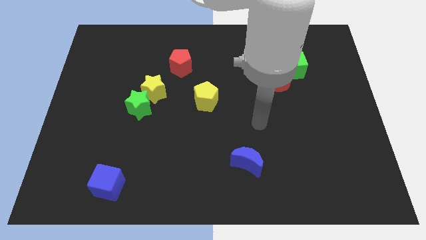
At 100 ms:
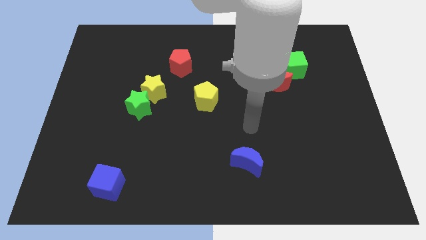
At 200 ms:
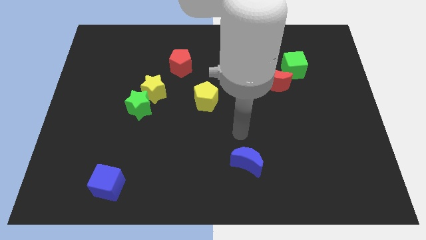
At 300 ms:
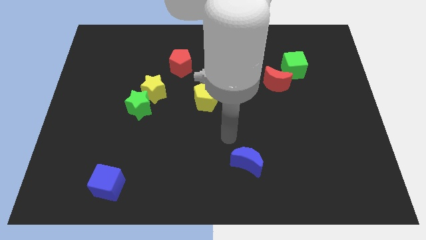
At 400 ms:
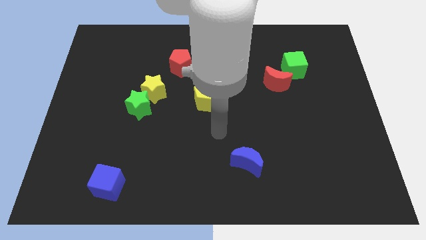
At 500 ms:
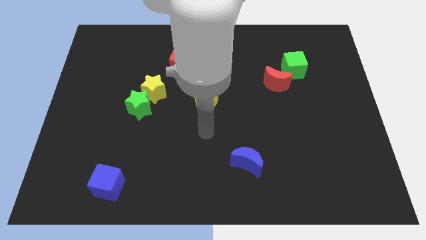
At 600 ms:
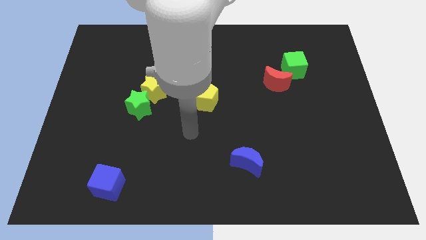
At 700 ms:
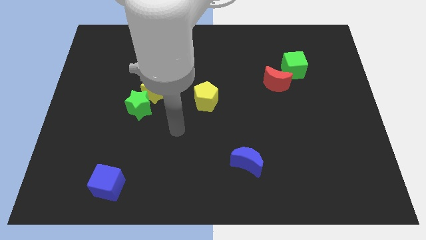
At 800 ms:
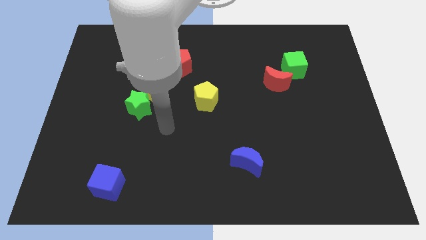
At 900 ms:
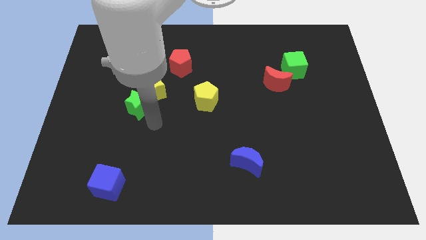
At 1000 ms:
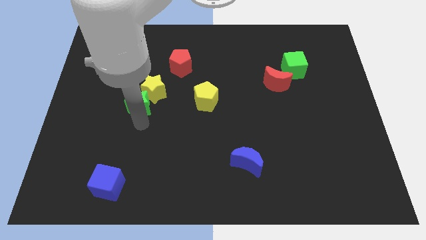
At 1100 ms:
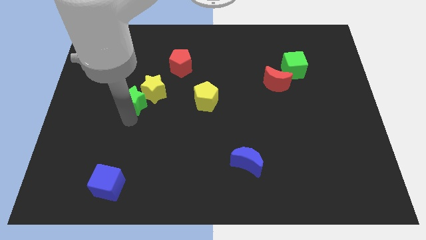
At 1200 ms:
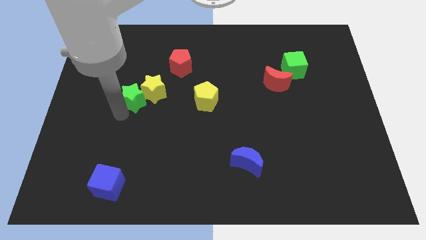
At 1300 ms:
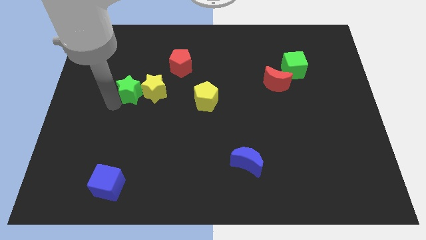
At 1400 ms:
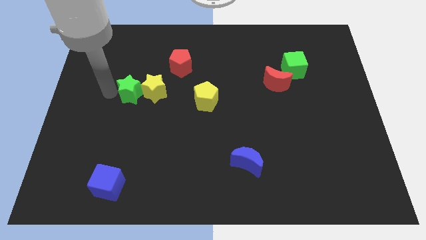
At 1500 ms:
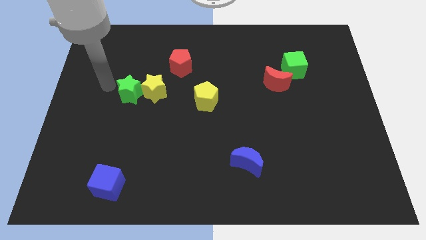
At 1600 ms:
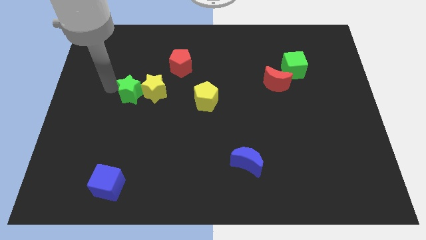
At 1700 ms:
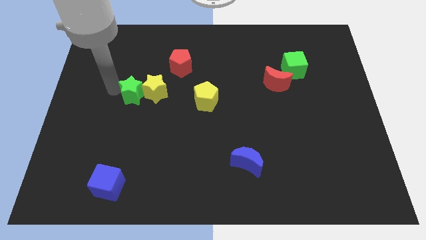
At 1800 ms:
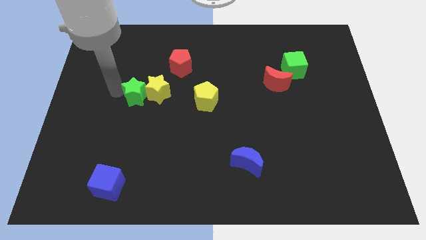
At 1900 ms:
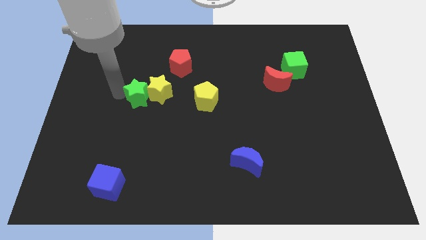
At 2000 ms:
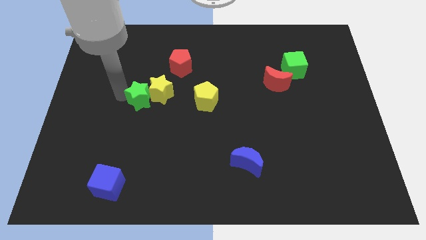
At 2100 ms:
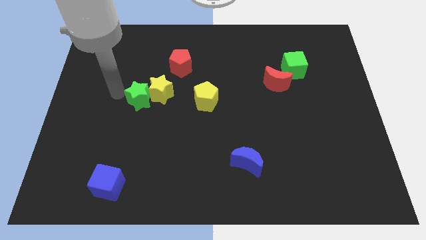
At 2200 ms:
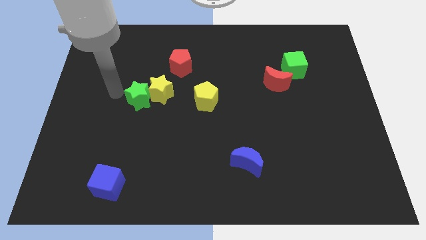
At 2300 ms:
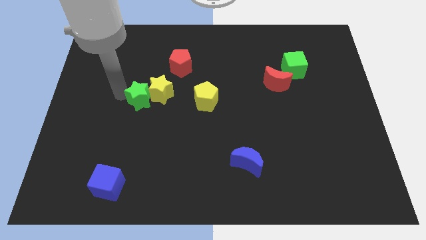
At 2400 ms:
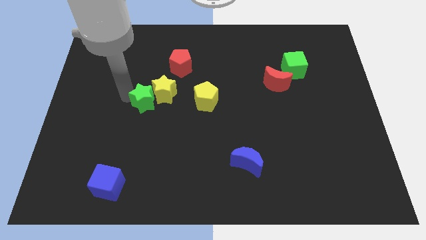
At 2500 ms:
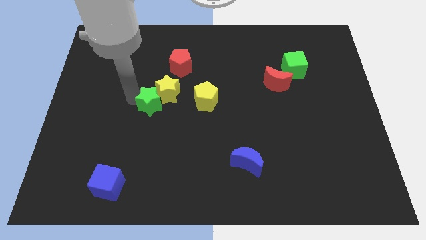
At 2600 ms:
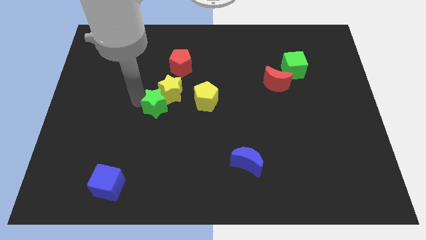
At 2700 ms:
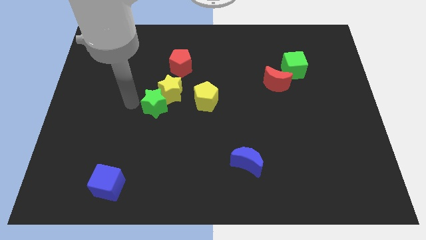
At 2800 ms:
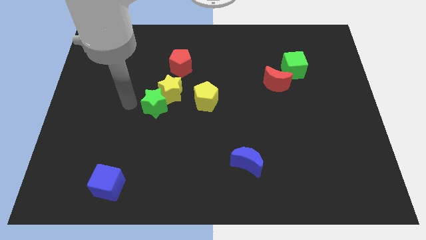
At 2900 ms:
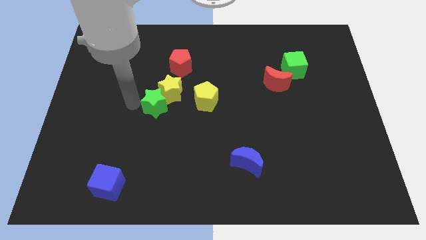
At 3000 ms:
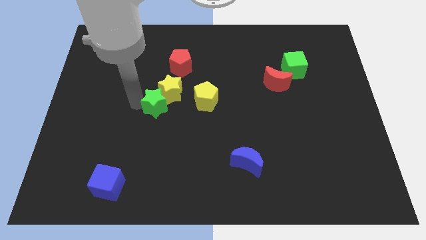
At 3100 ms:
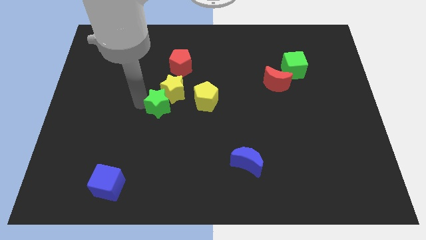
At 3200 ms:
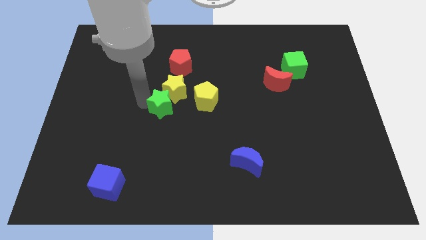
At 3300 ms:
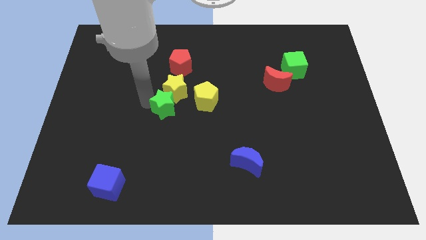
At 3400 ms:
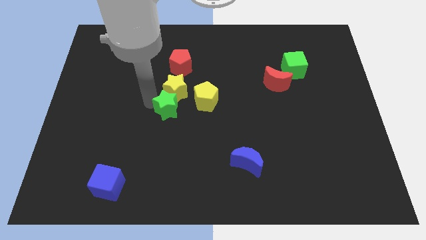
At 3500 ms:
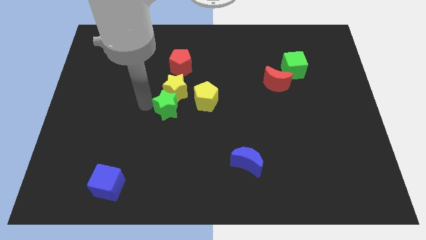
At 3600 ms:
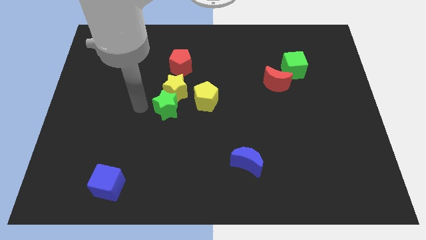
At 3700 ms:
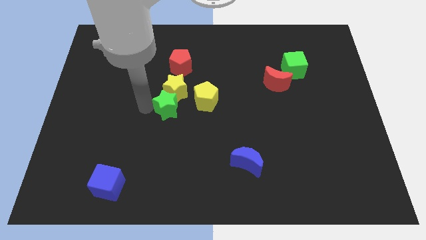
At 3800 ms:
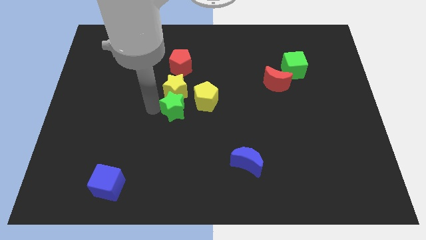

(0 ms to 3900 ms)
move the green star to the right a bit

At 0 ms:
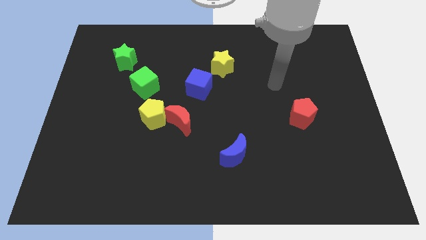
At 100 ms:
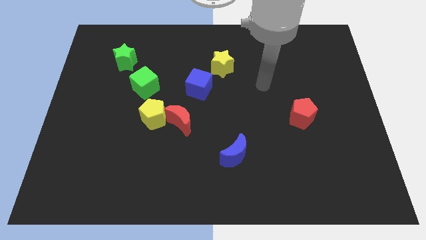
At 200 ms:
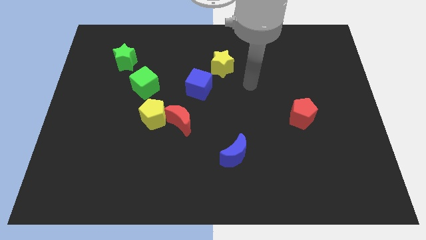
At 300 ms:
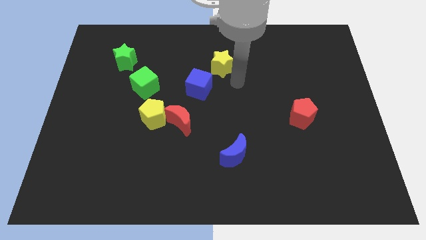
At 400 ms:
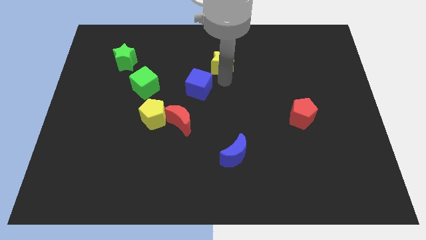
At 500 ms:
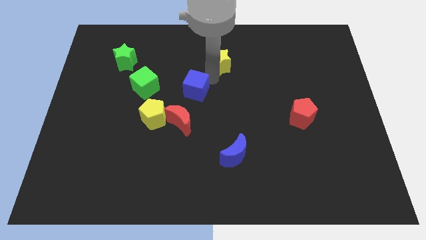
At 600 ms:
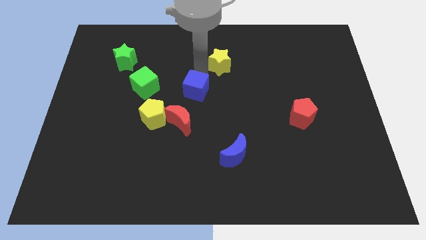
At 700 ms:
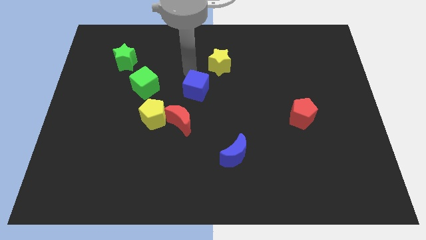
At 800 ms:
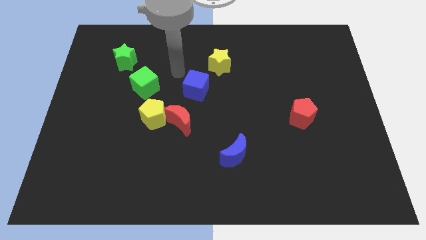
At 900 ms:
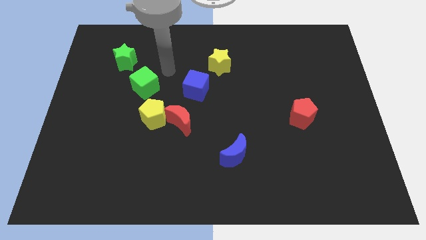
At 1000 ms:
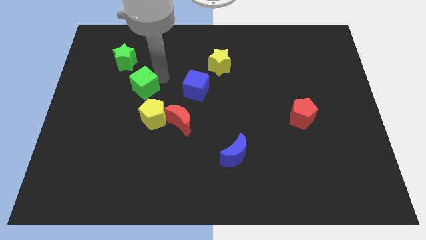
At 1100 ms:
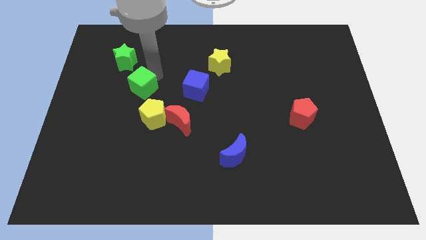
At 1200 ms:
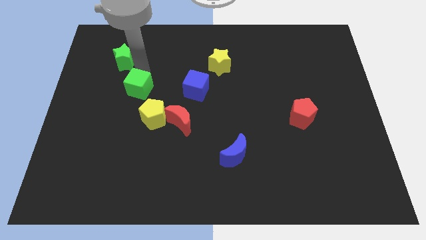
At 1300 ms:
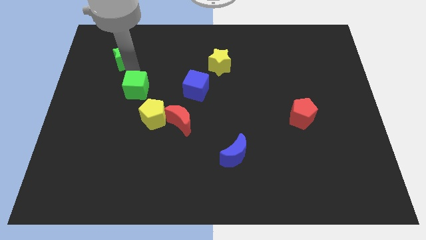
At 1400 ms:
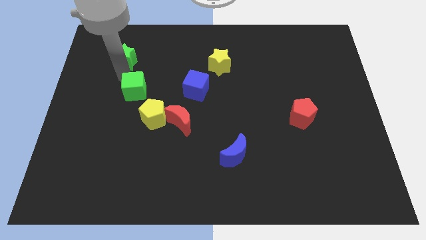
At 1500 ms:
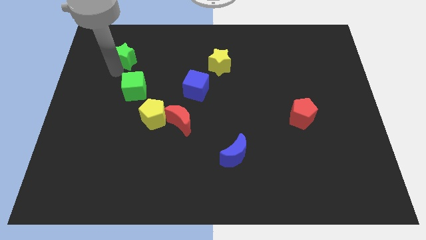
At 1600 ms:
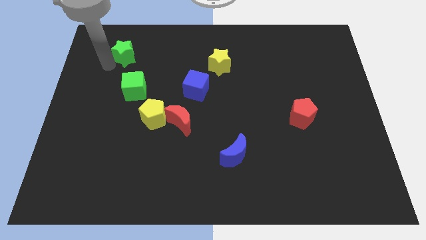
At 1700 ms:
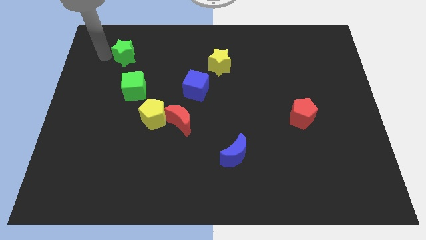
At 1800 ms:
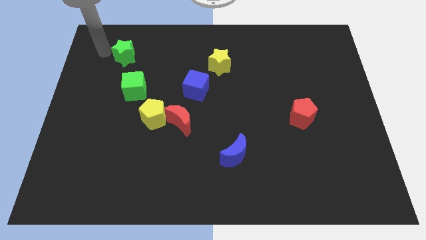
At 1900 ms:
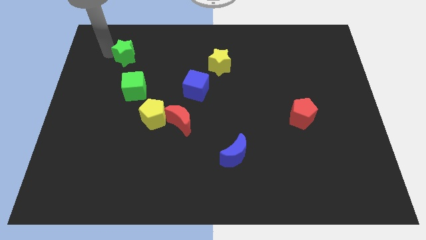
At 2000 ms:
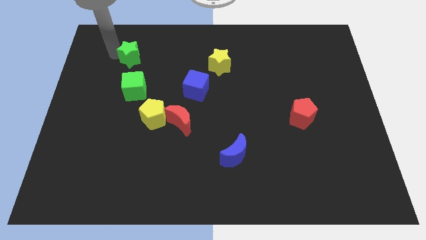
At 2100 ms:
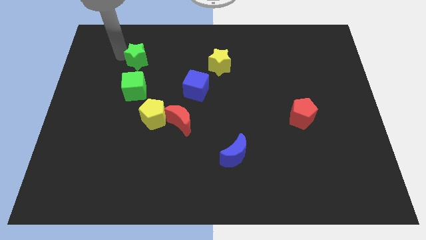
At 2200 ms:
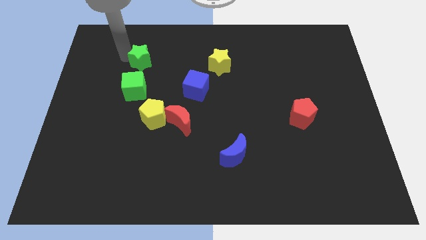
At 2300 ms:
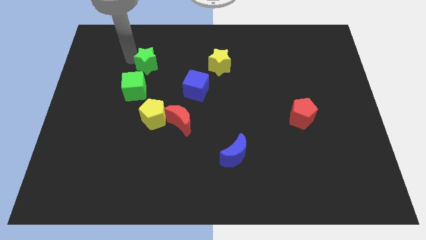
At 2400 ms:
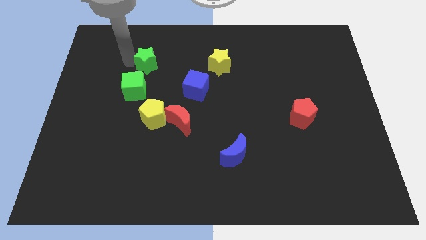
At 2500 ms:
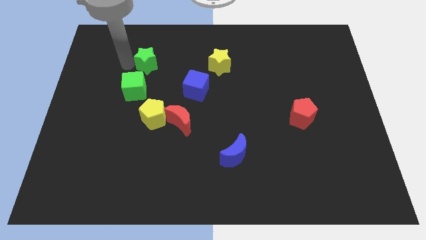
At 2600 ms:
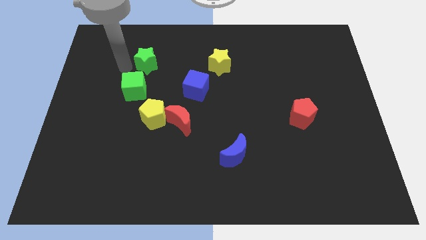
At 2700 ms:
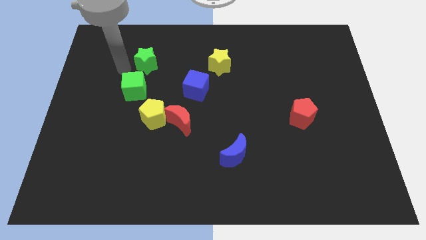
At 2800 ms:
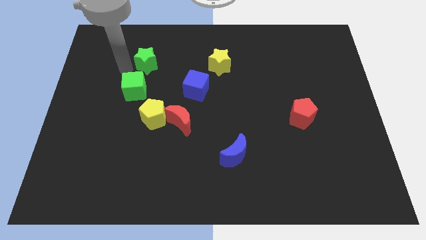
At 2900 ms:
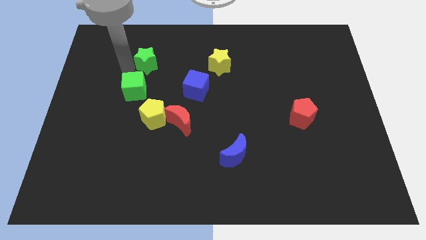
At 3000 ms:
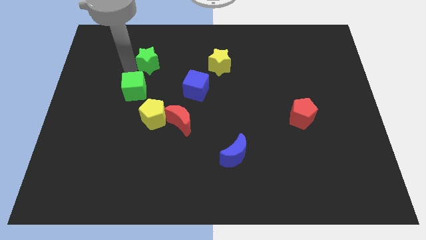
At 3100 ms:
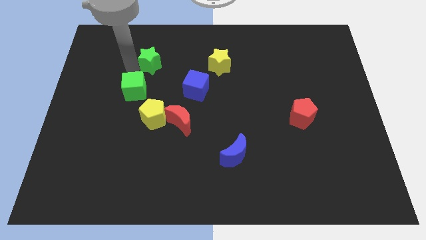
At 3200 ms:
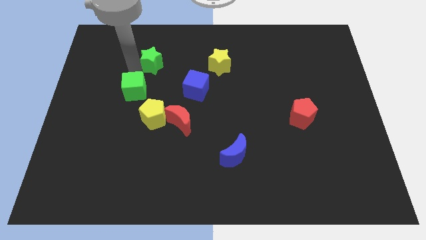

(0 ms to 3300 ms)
push the green star a little right

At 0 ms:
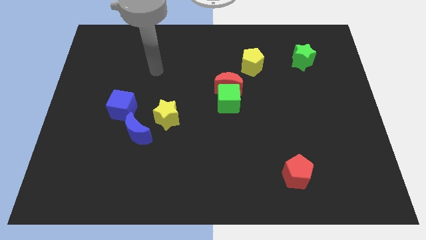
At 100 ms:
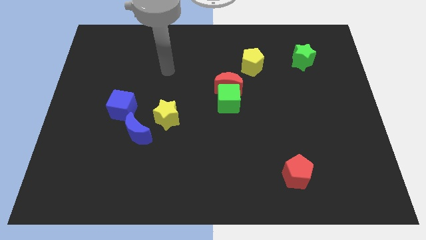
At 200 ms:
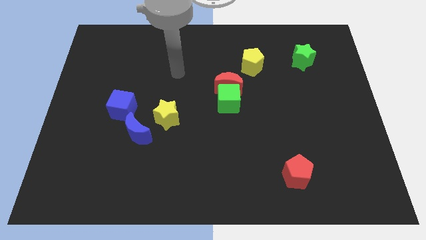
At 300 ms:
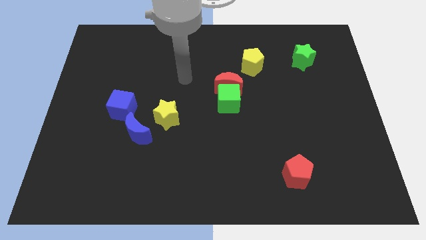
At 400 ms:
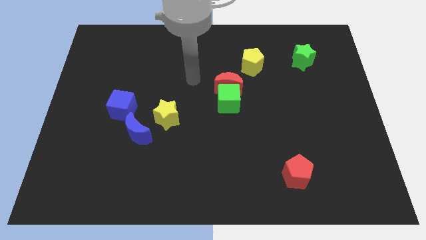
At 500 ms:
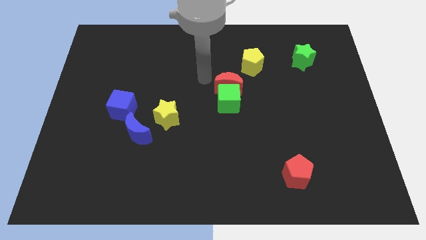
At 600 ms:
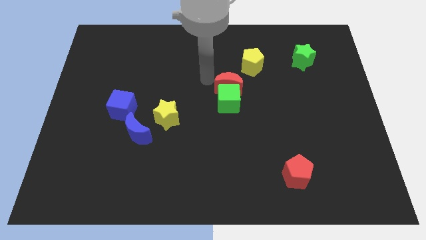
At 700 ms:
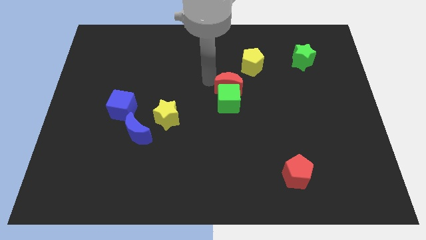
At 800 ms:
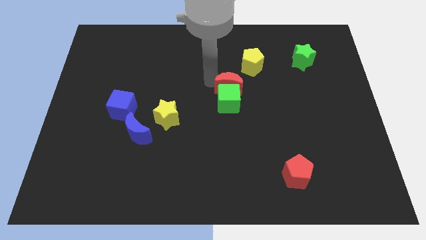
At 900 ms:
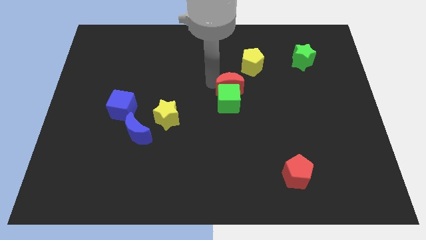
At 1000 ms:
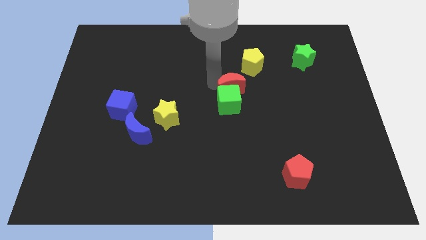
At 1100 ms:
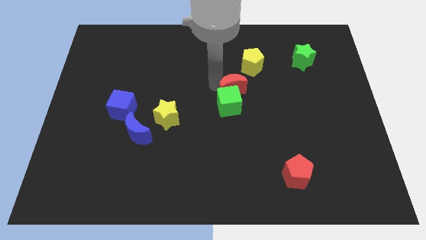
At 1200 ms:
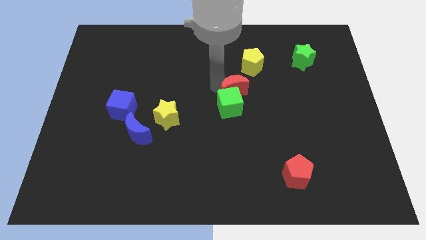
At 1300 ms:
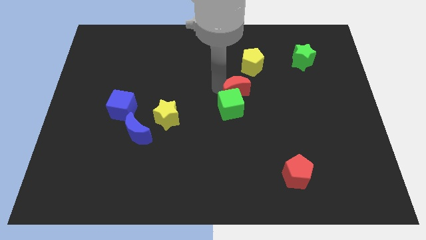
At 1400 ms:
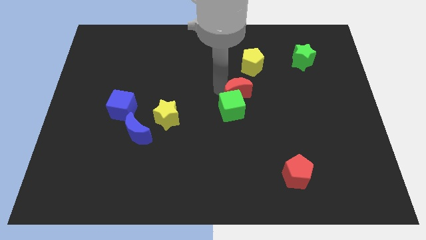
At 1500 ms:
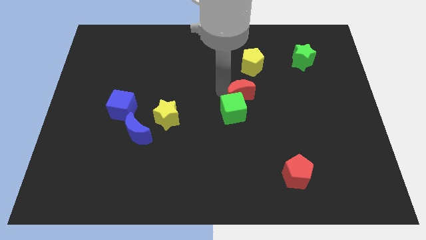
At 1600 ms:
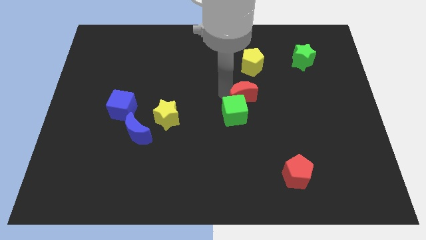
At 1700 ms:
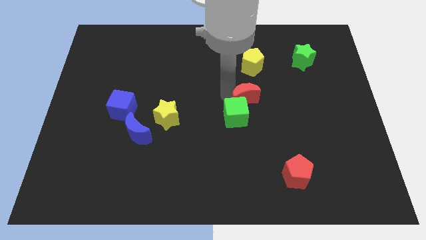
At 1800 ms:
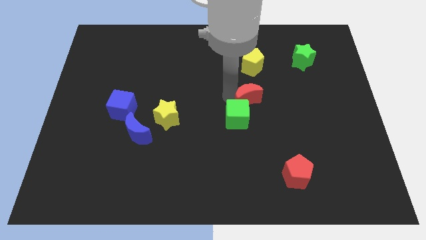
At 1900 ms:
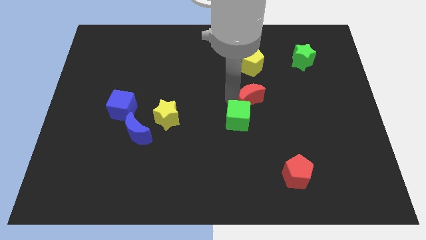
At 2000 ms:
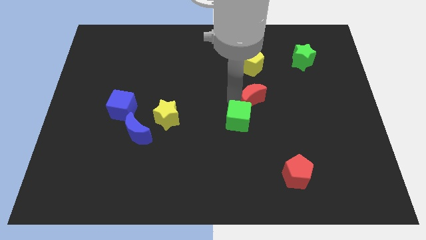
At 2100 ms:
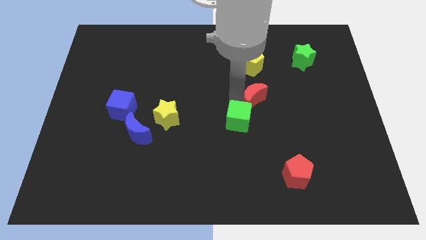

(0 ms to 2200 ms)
slide the red moon a bit down and to the right
